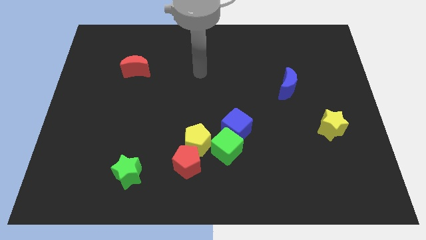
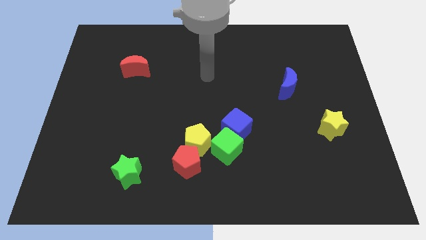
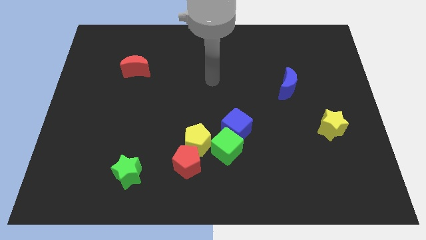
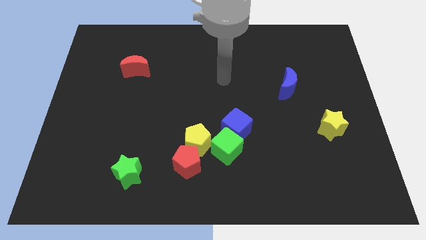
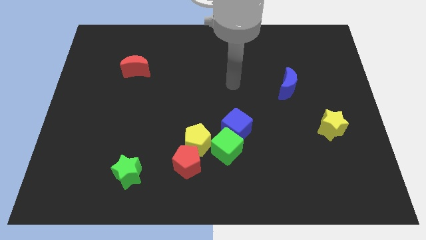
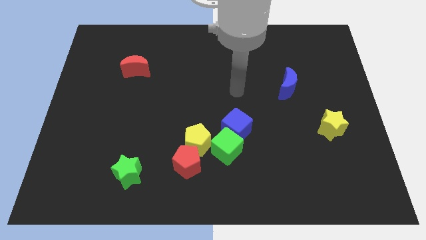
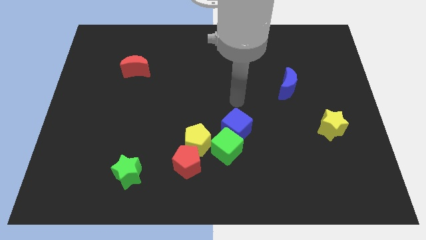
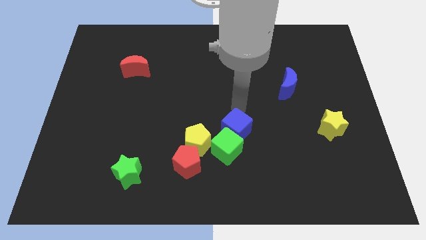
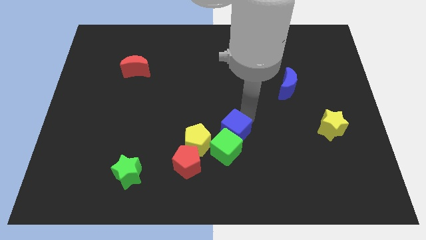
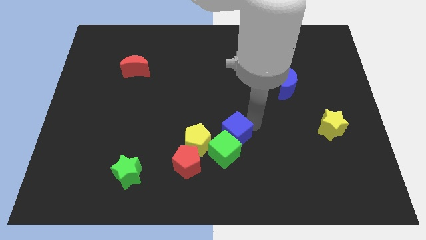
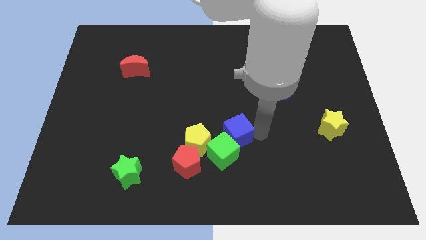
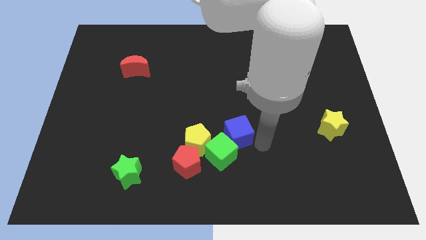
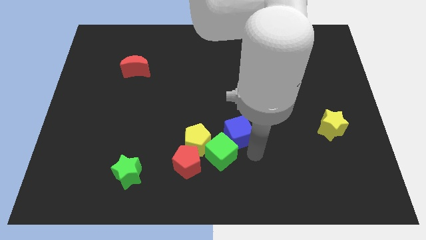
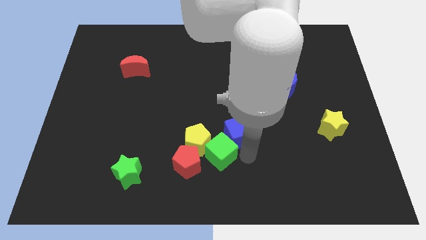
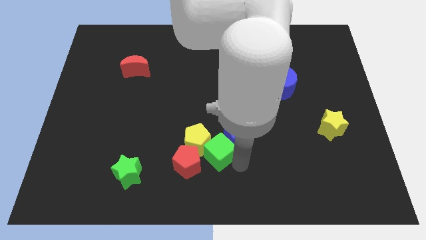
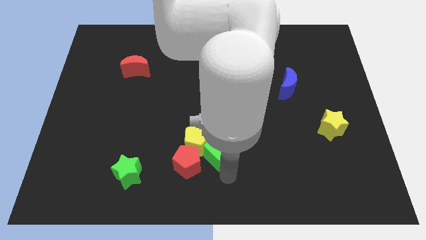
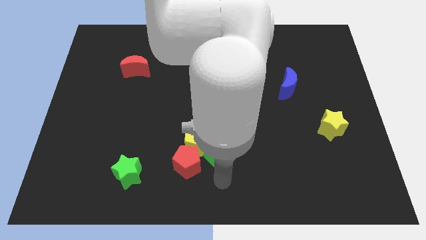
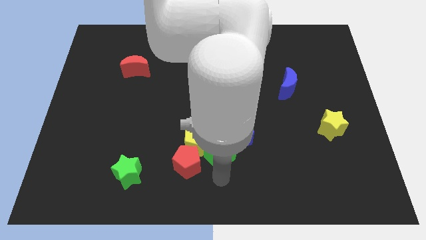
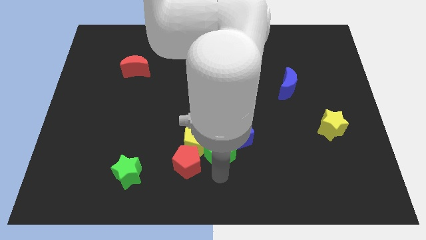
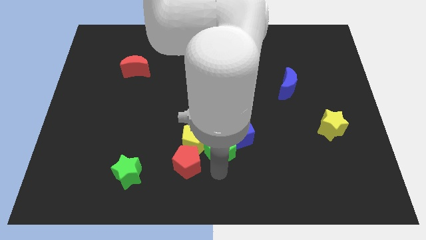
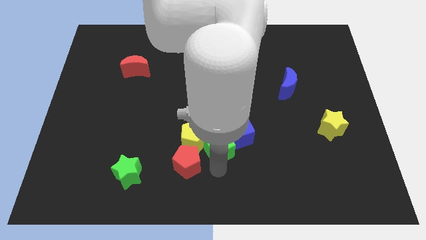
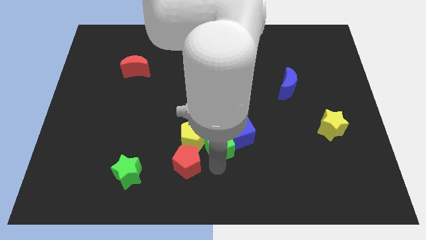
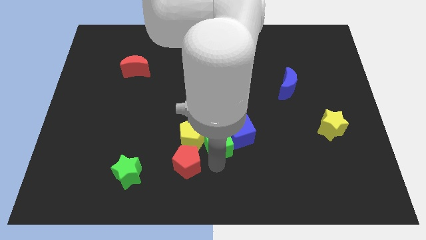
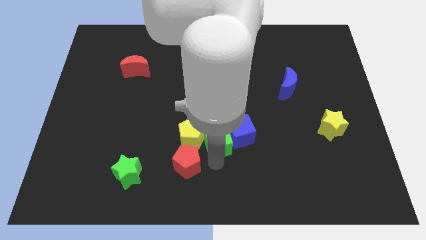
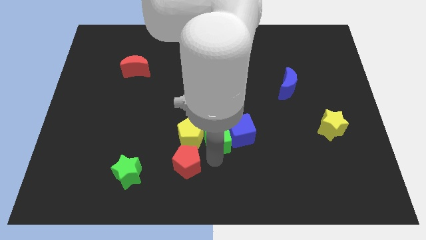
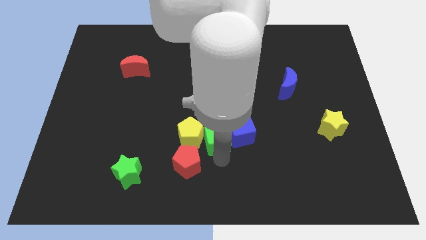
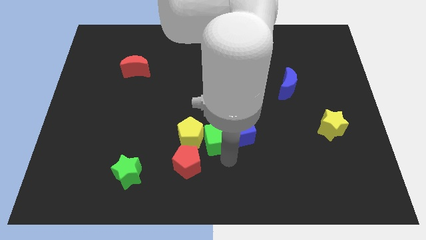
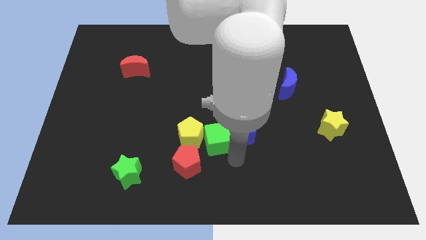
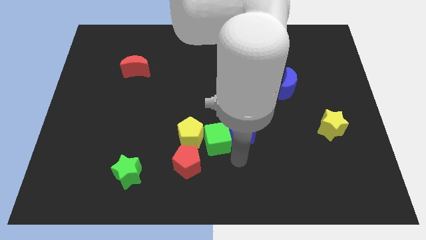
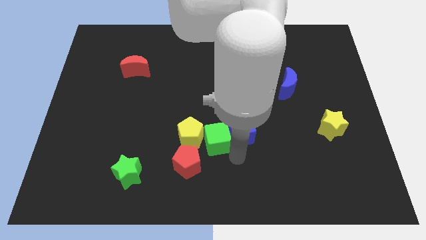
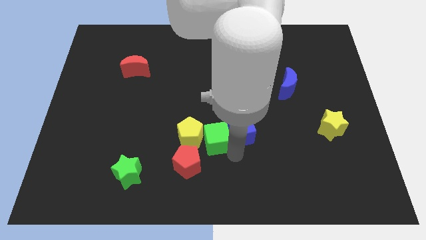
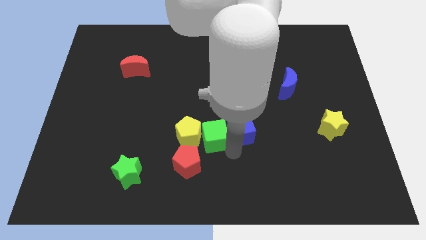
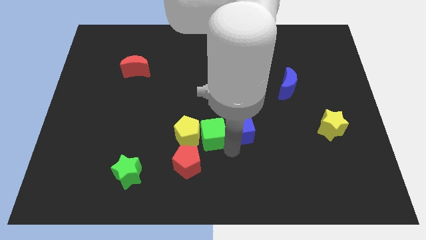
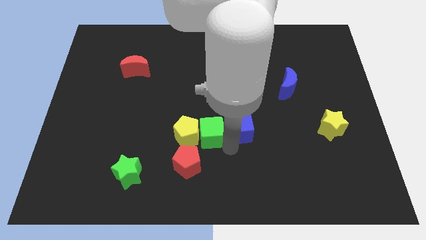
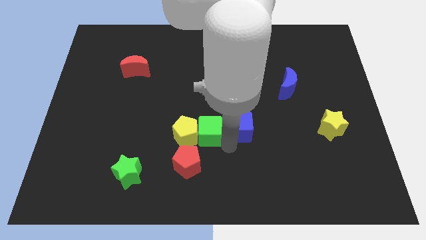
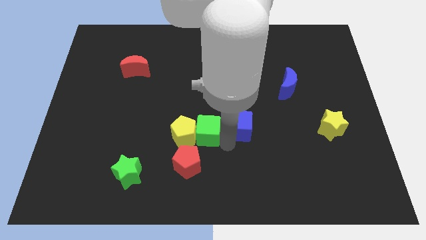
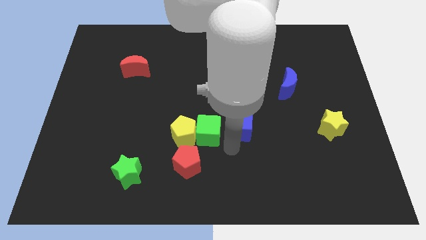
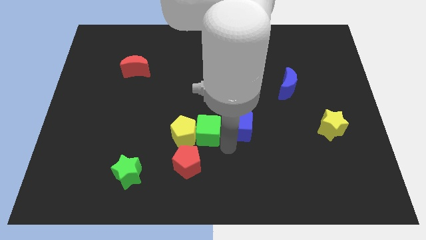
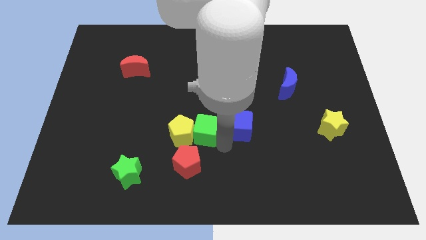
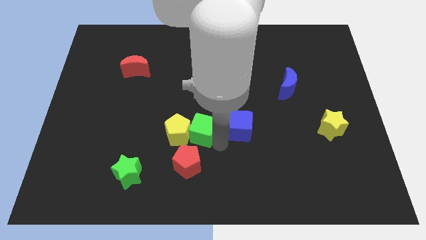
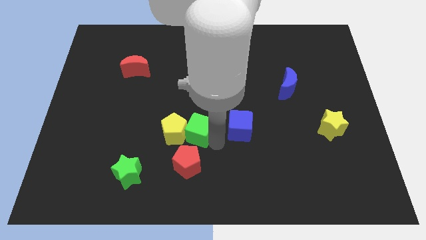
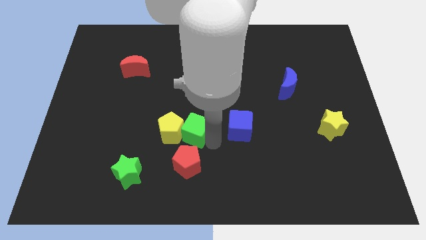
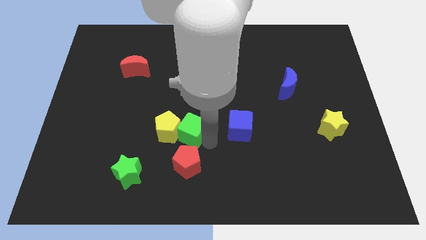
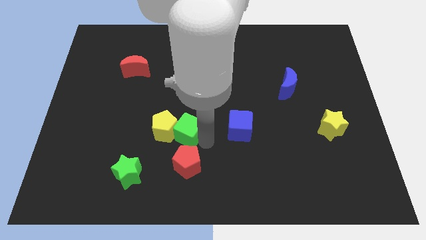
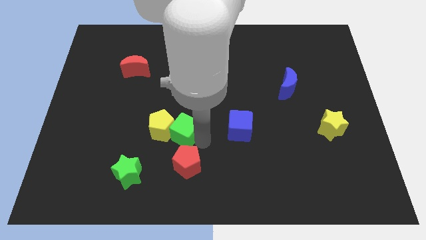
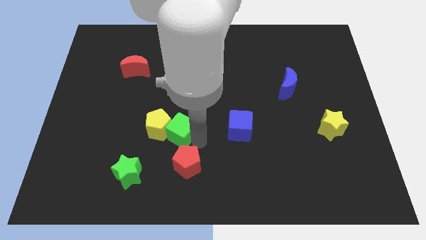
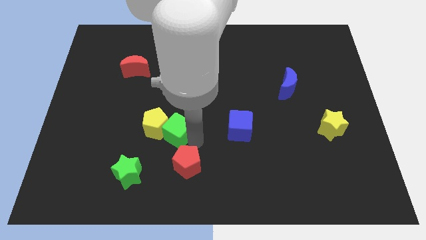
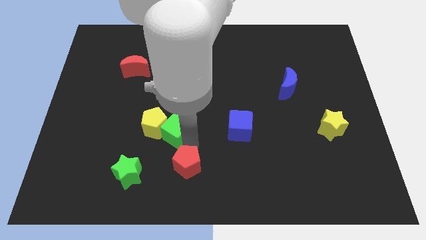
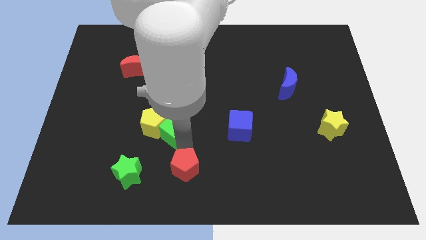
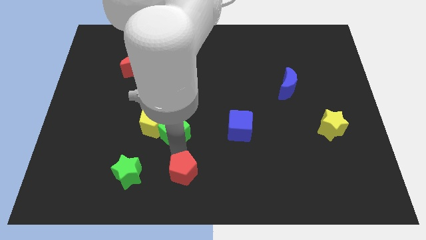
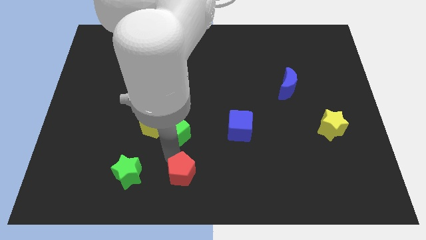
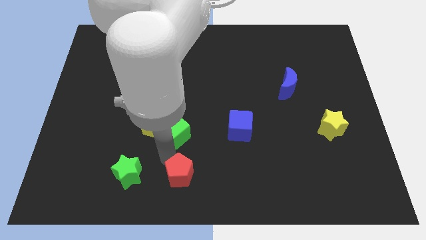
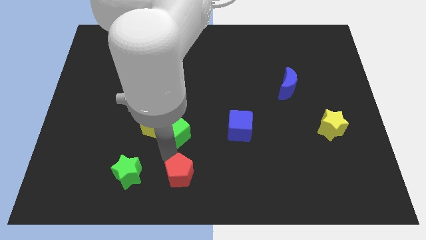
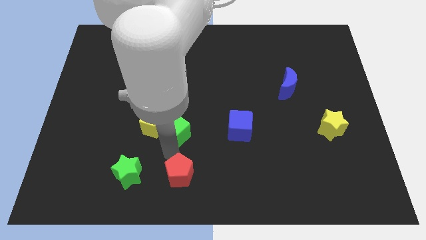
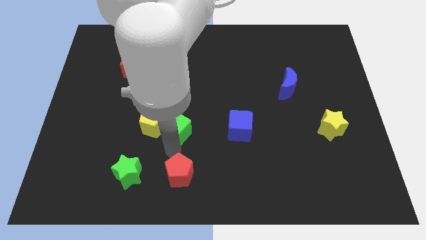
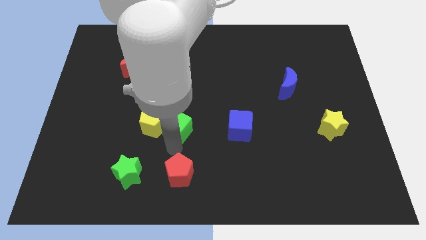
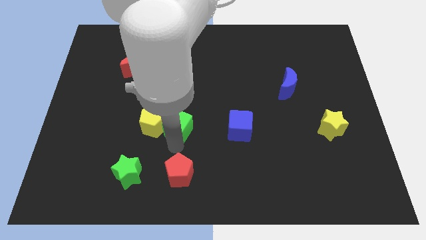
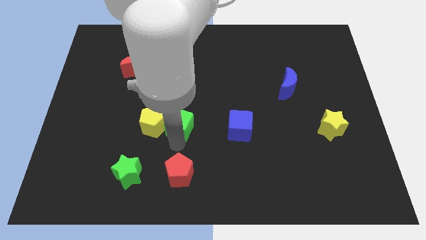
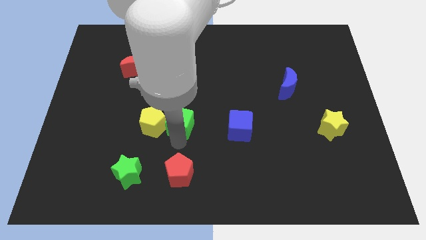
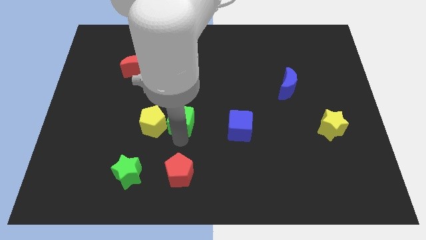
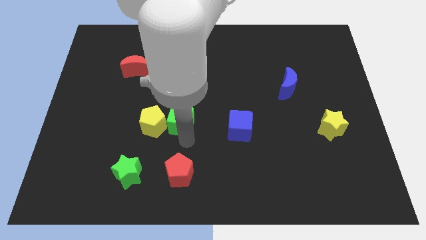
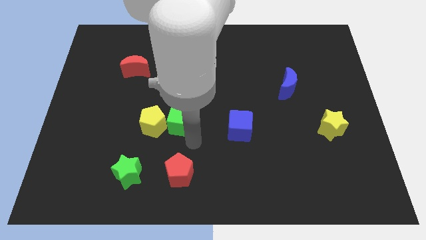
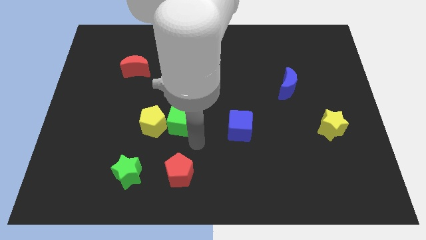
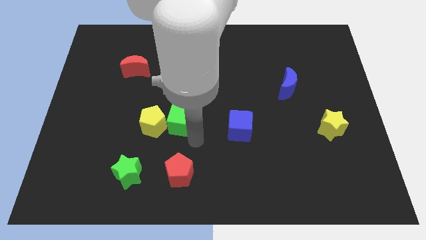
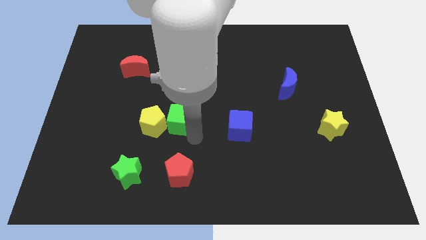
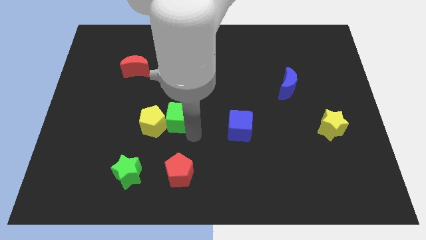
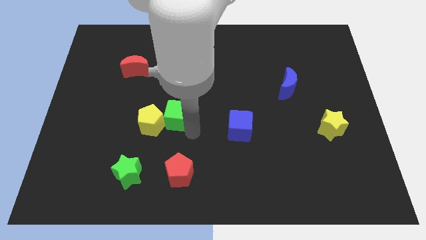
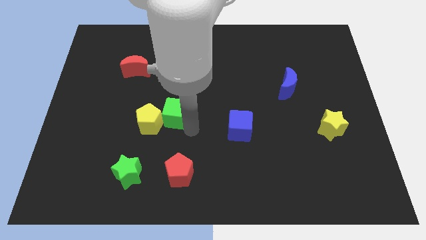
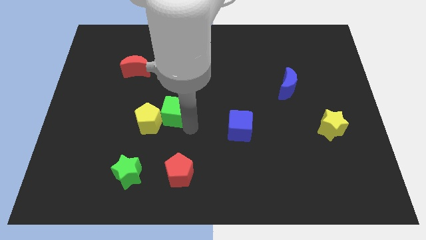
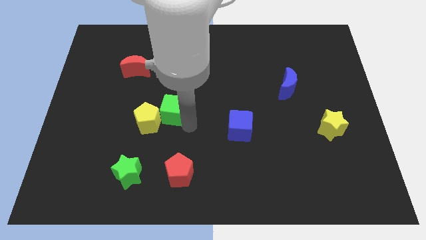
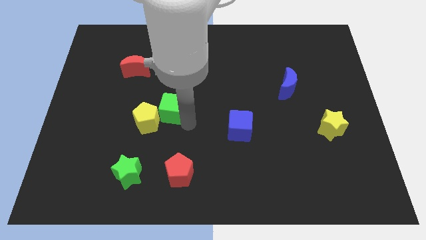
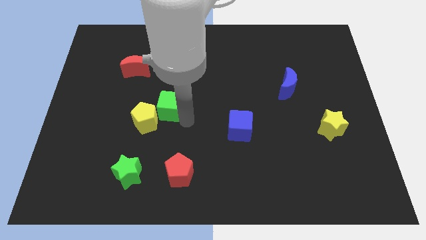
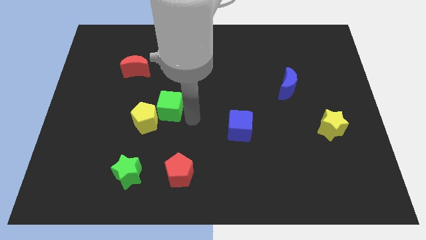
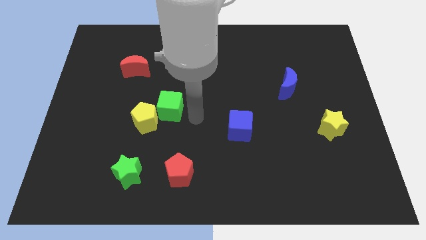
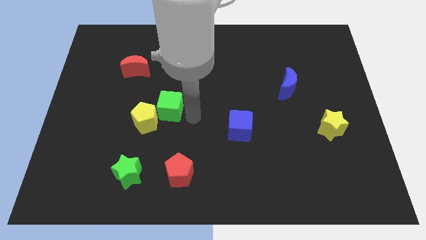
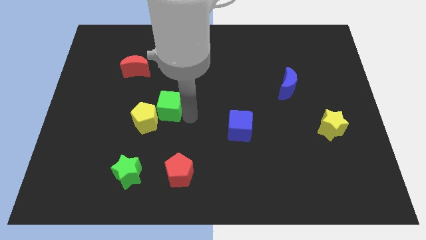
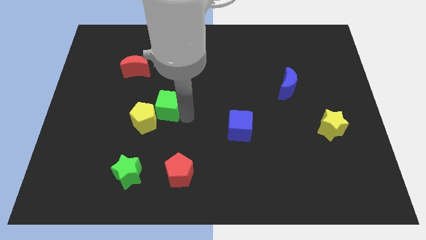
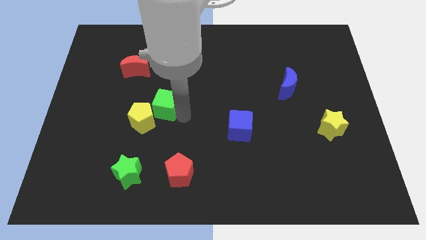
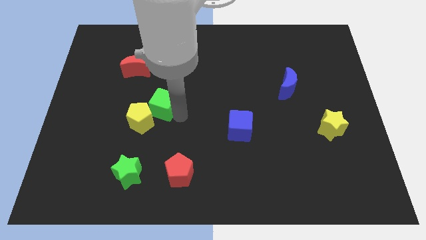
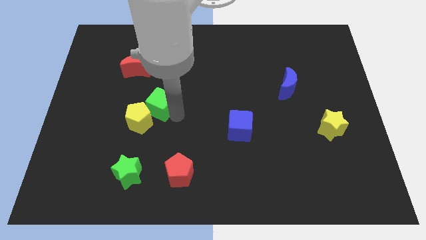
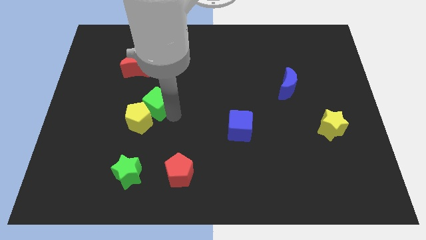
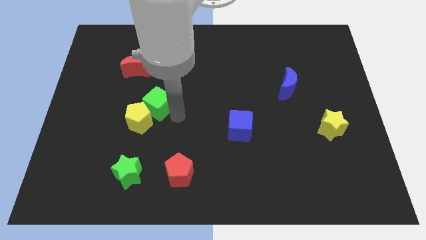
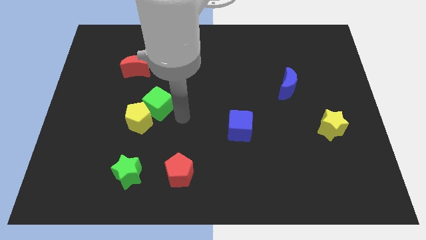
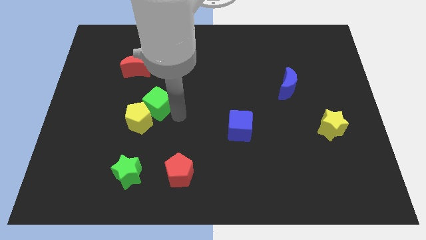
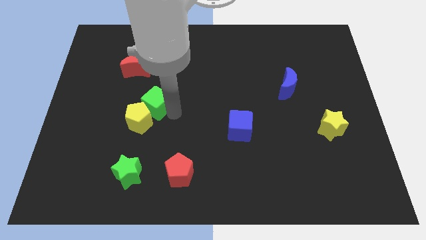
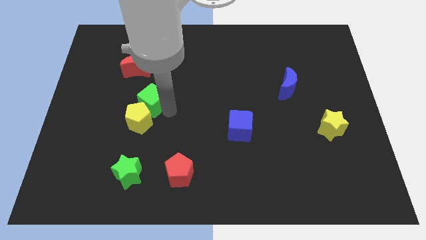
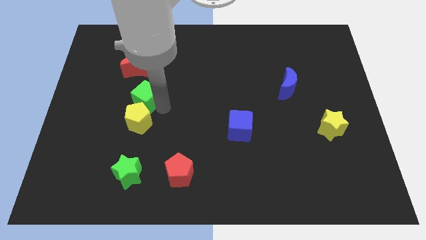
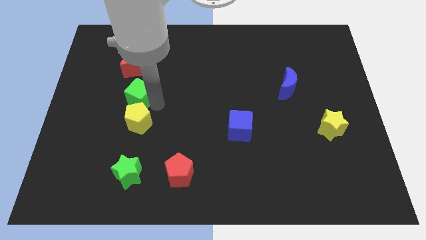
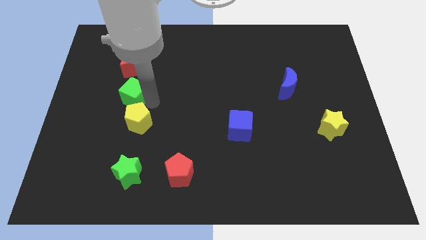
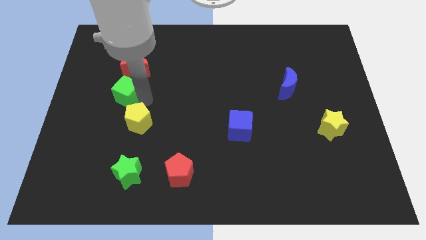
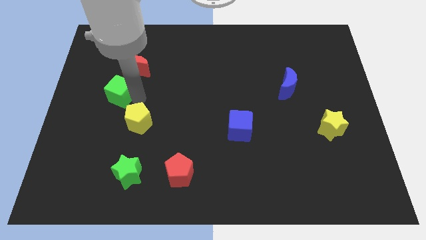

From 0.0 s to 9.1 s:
push the green cube diagonally down and to the left of the red moon
